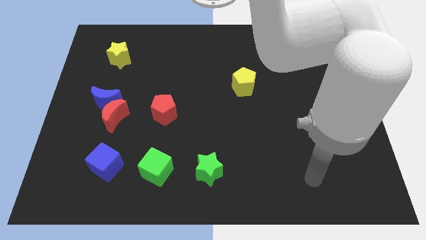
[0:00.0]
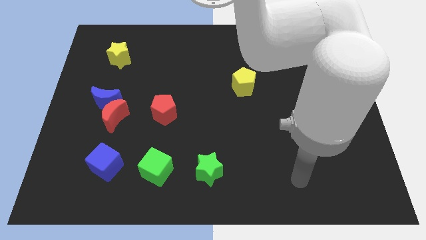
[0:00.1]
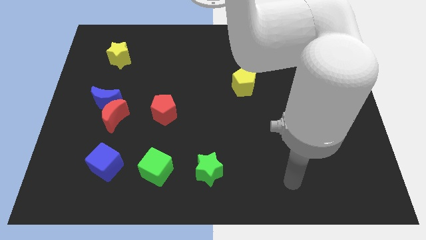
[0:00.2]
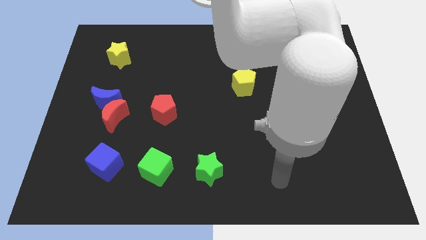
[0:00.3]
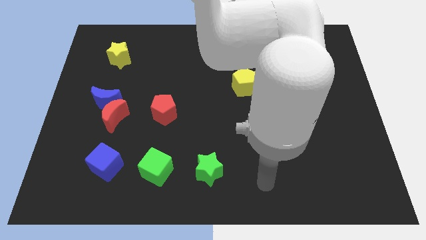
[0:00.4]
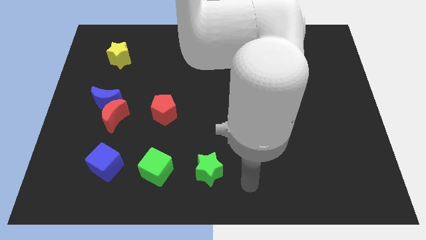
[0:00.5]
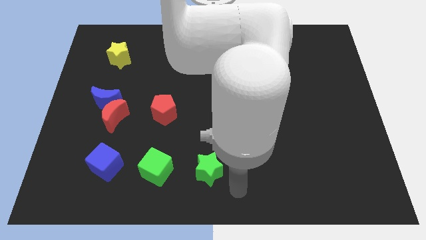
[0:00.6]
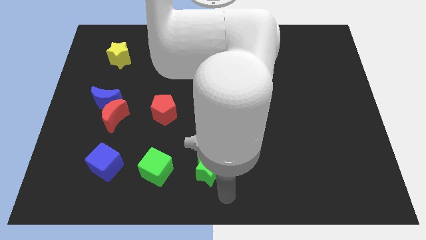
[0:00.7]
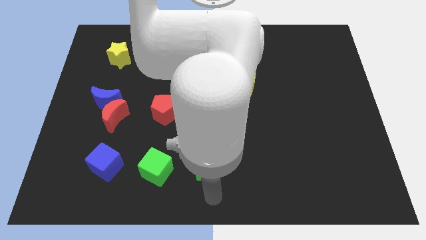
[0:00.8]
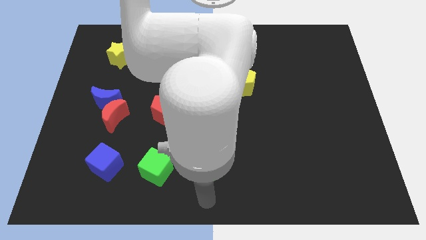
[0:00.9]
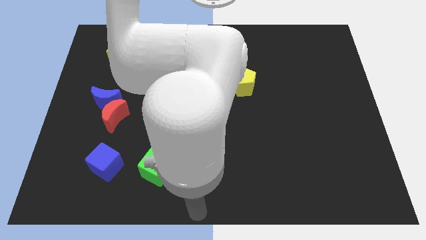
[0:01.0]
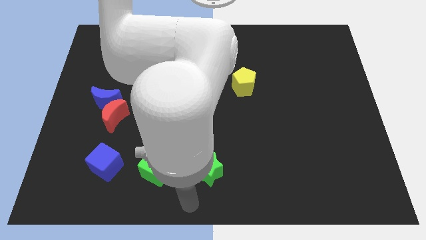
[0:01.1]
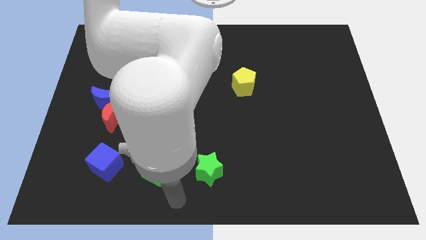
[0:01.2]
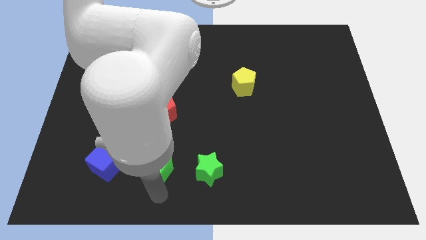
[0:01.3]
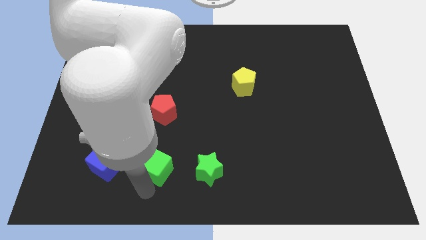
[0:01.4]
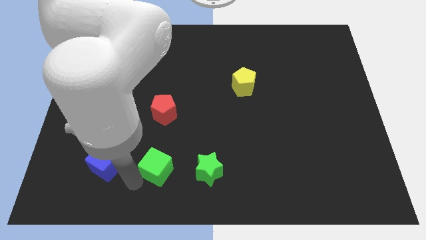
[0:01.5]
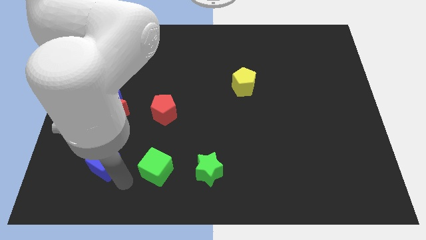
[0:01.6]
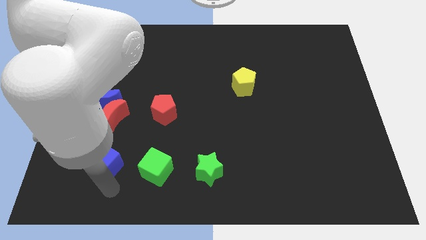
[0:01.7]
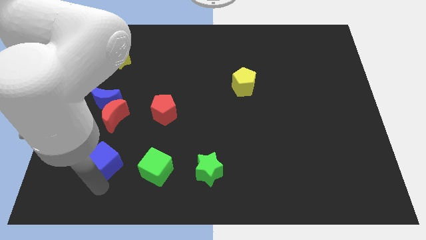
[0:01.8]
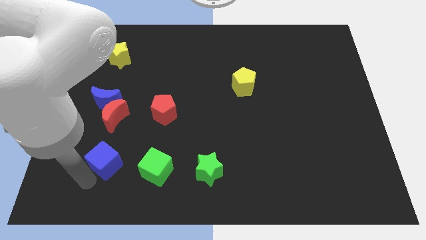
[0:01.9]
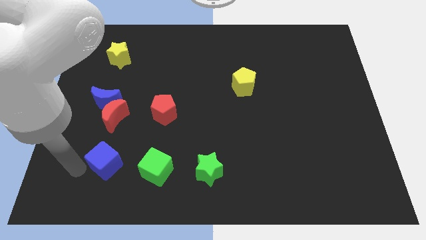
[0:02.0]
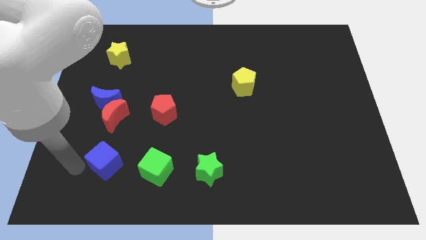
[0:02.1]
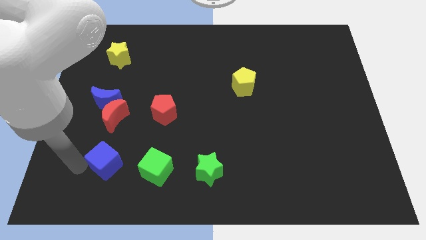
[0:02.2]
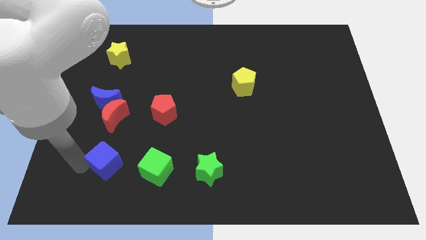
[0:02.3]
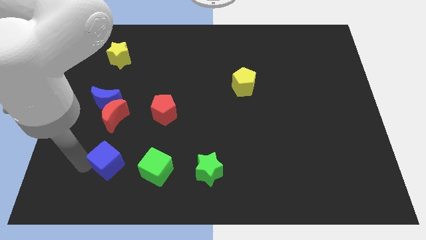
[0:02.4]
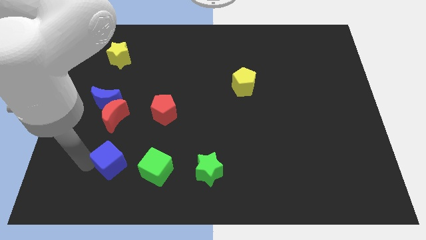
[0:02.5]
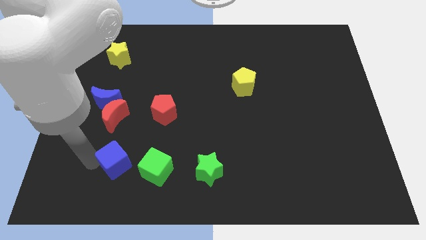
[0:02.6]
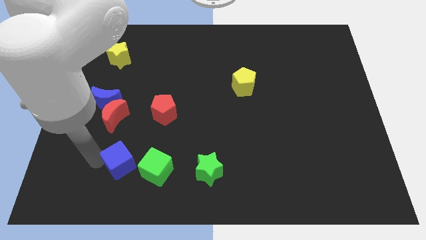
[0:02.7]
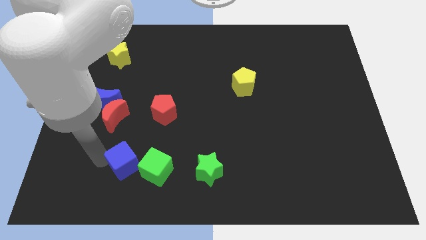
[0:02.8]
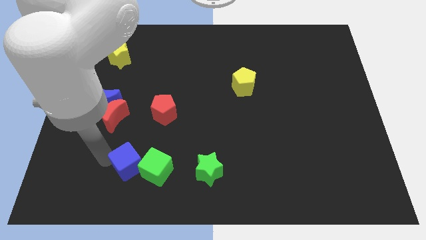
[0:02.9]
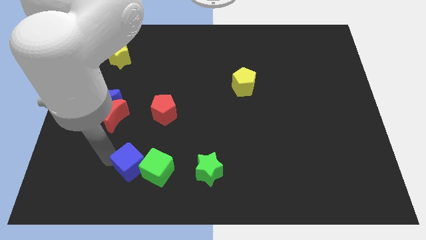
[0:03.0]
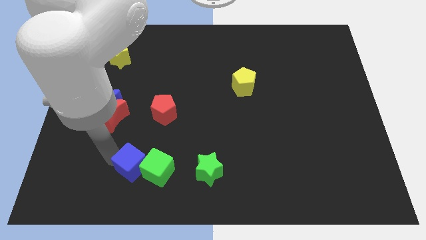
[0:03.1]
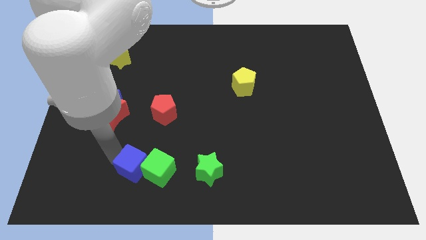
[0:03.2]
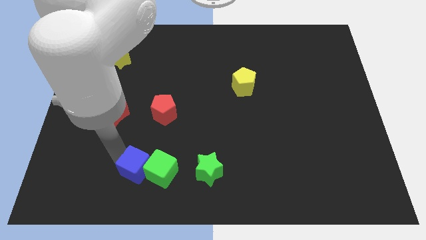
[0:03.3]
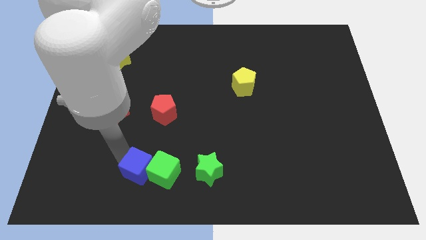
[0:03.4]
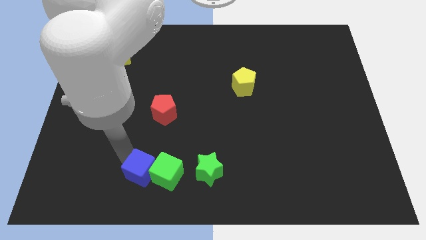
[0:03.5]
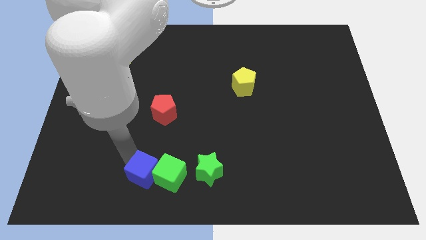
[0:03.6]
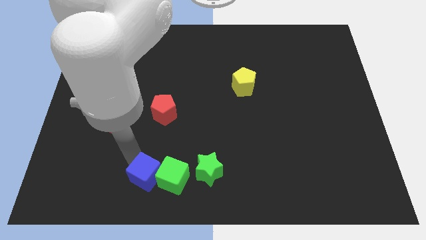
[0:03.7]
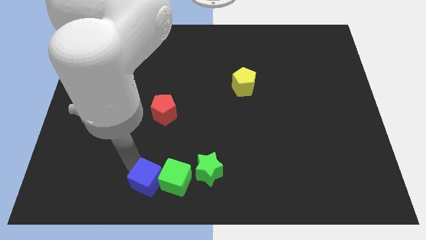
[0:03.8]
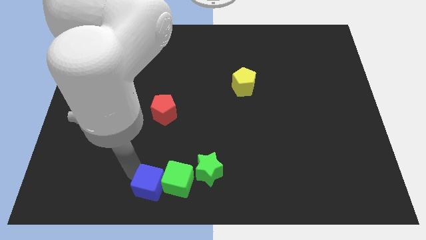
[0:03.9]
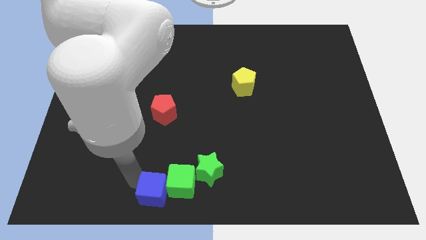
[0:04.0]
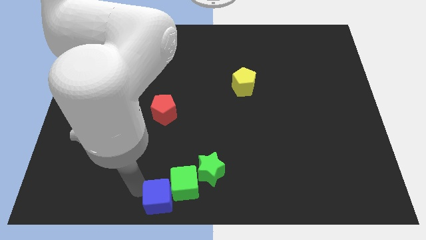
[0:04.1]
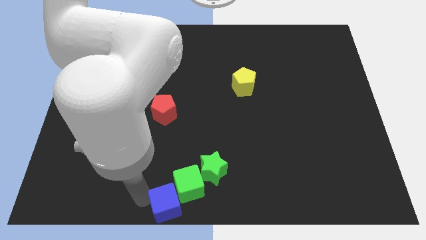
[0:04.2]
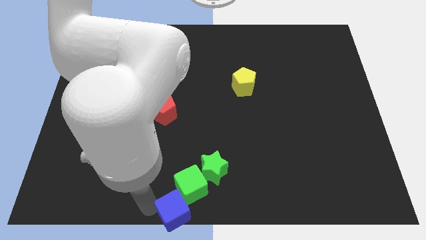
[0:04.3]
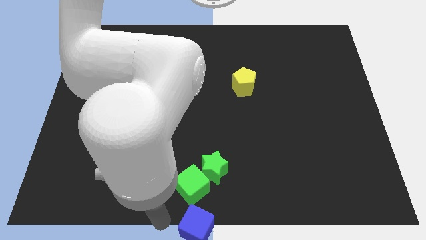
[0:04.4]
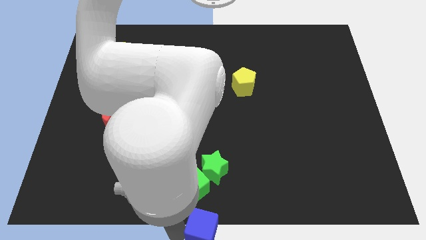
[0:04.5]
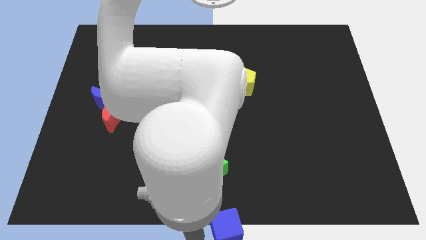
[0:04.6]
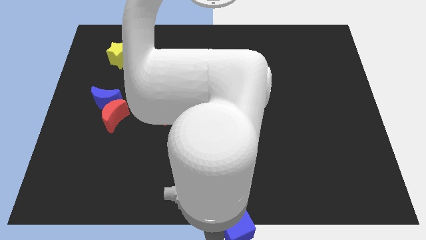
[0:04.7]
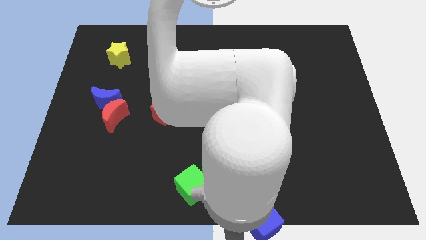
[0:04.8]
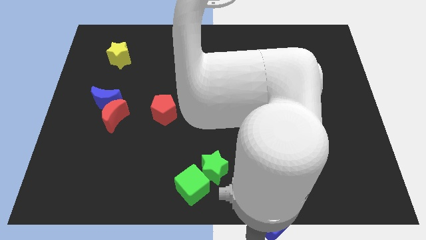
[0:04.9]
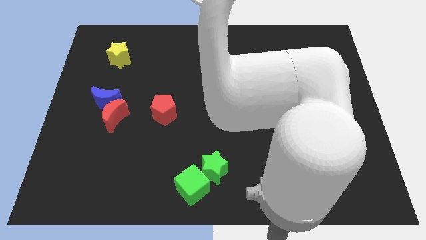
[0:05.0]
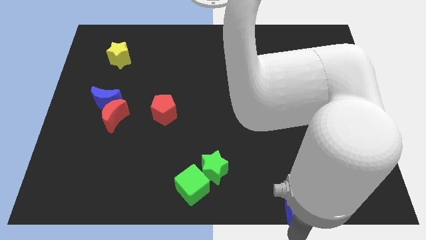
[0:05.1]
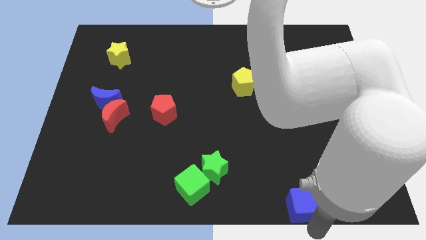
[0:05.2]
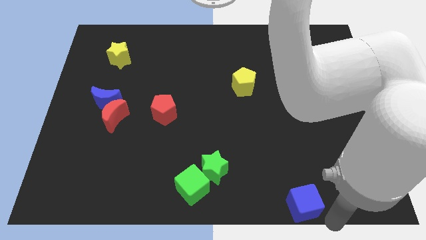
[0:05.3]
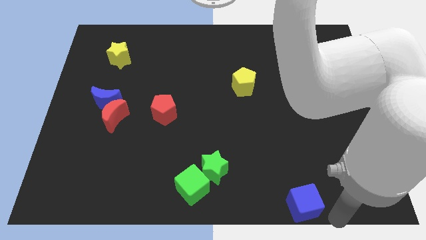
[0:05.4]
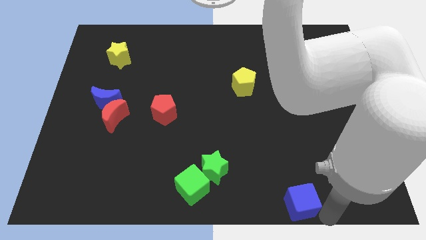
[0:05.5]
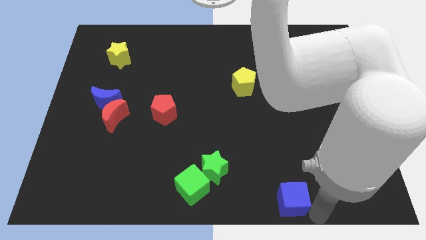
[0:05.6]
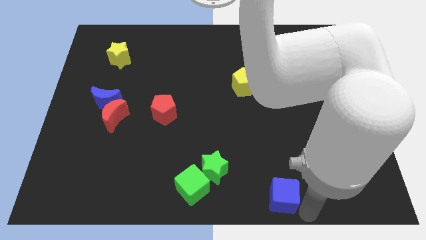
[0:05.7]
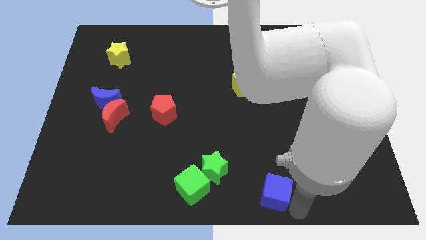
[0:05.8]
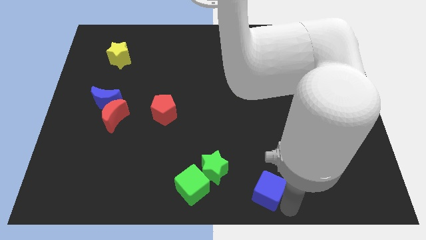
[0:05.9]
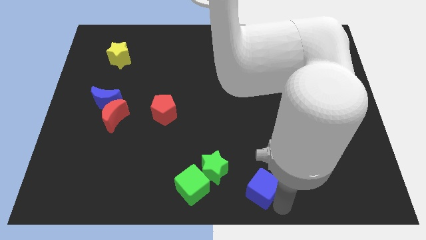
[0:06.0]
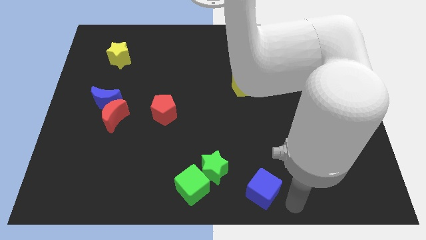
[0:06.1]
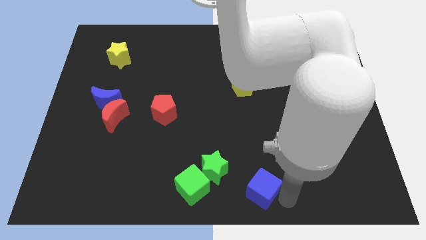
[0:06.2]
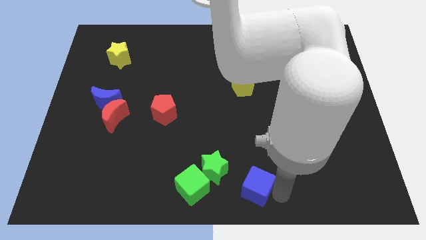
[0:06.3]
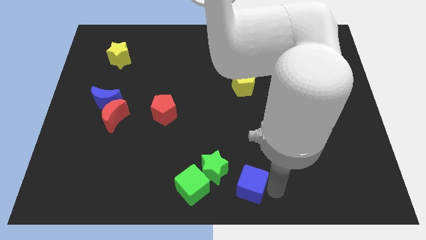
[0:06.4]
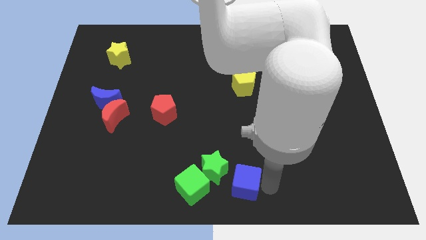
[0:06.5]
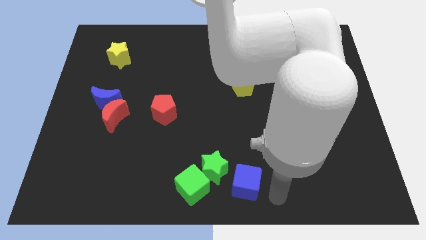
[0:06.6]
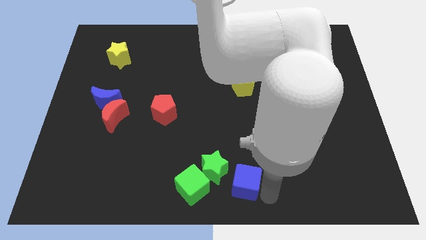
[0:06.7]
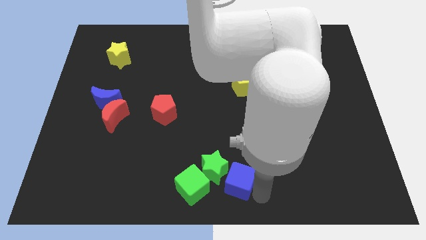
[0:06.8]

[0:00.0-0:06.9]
move the blue cube next to the green star

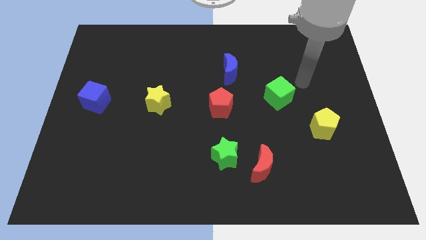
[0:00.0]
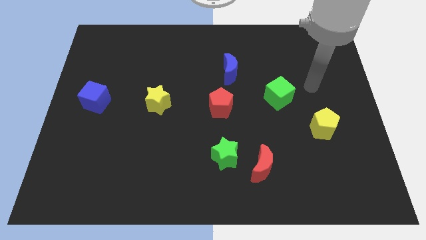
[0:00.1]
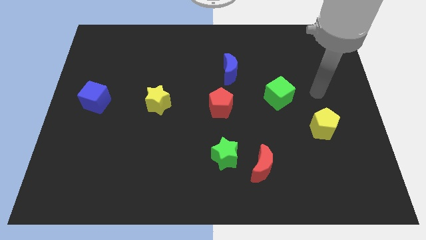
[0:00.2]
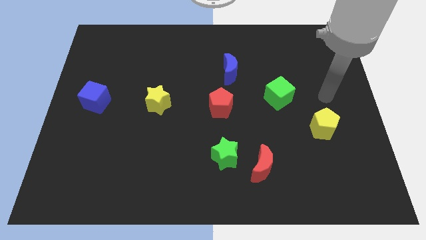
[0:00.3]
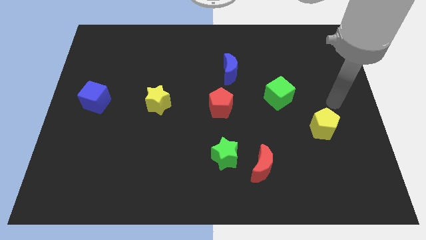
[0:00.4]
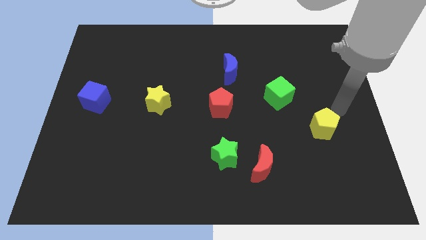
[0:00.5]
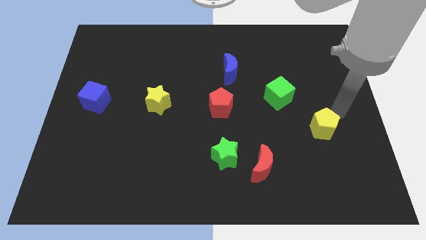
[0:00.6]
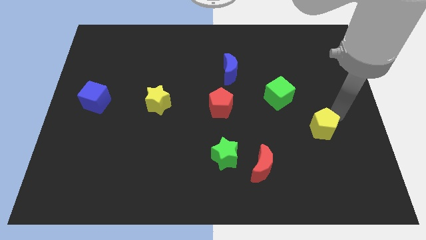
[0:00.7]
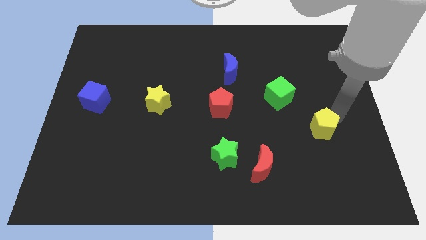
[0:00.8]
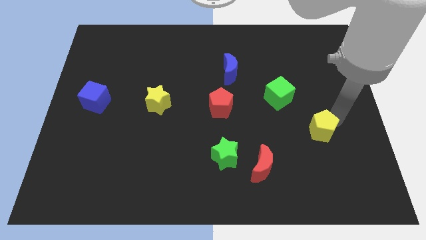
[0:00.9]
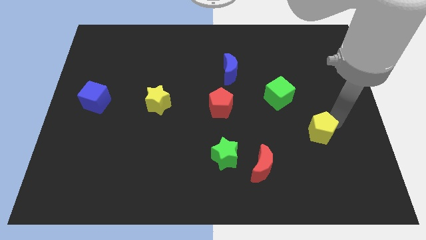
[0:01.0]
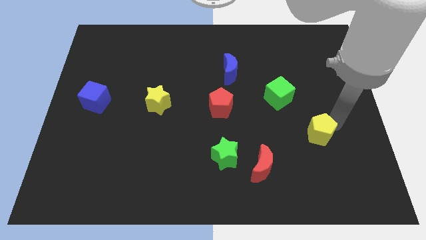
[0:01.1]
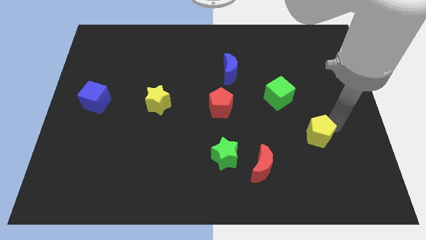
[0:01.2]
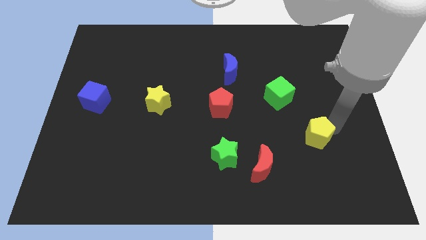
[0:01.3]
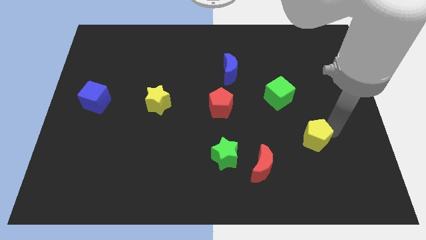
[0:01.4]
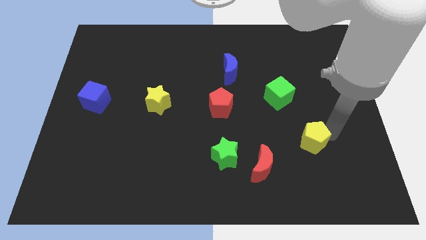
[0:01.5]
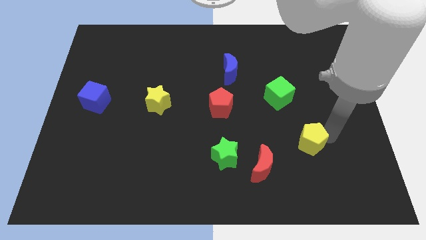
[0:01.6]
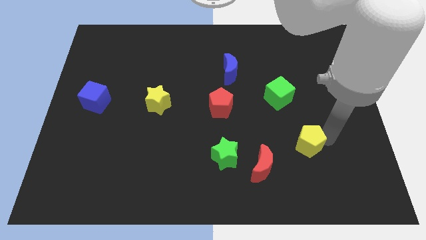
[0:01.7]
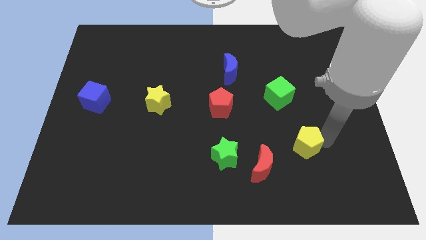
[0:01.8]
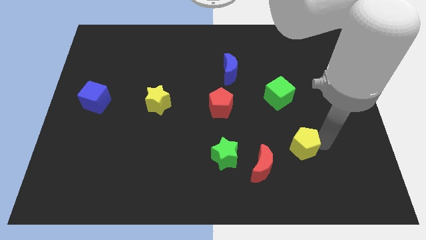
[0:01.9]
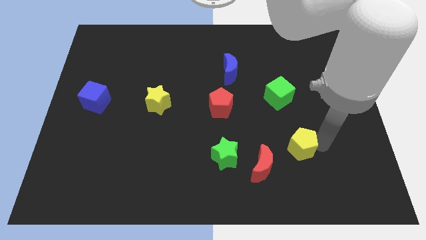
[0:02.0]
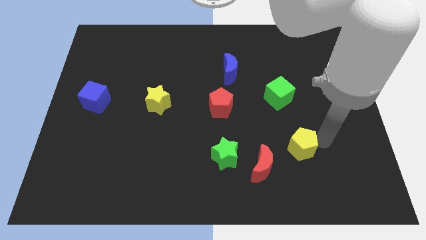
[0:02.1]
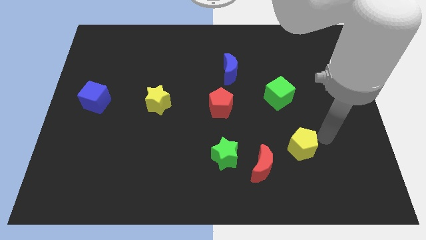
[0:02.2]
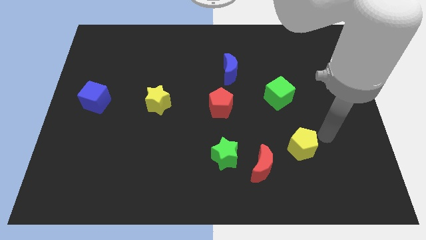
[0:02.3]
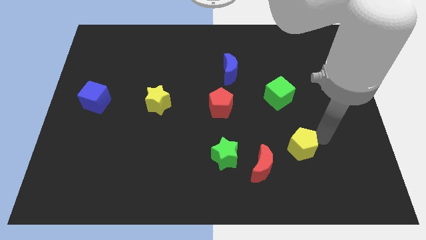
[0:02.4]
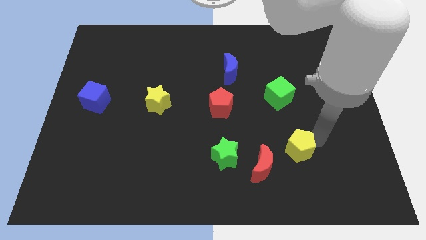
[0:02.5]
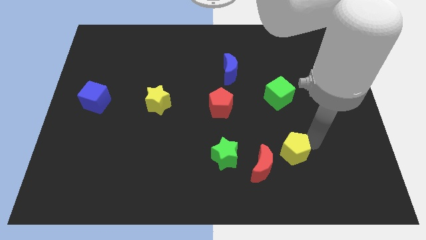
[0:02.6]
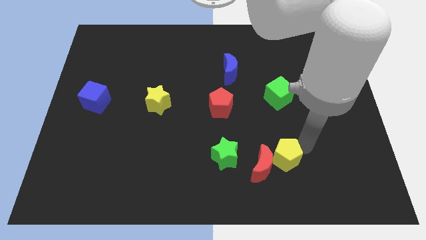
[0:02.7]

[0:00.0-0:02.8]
push the yellow pentagon to the red moon
